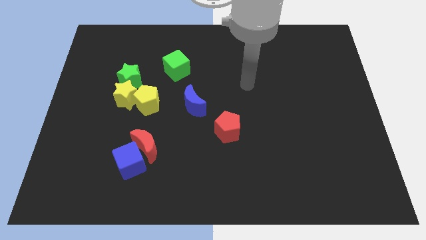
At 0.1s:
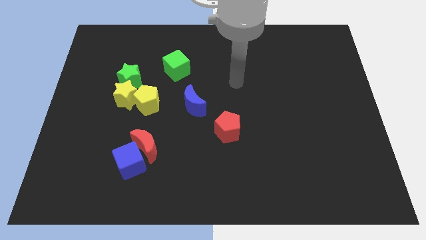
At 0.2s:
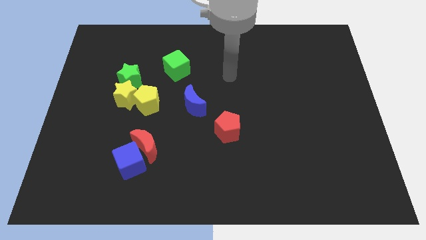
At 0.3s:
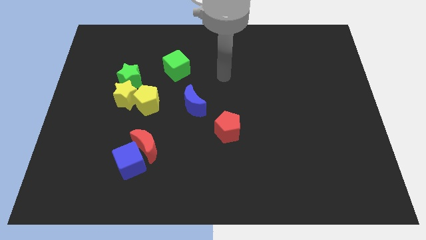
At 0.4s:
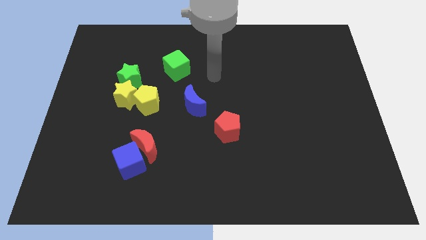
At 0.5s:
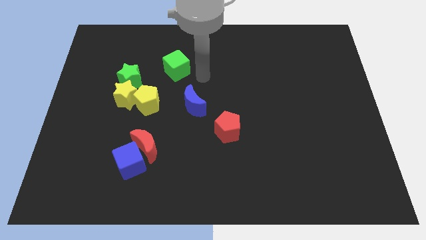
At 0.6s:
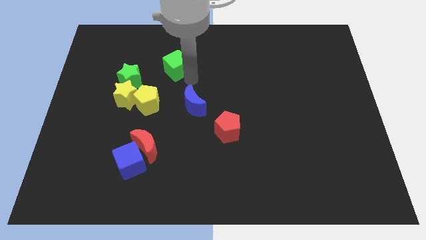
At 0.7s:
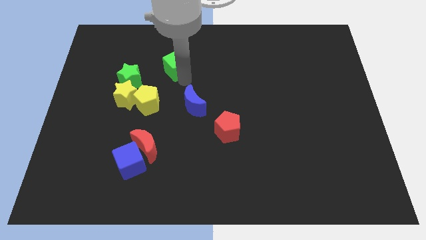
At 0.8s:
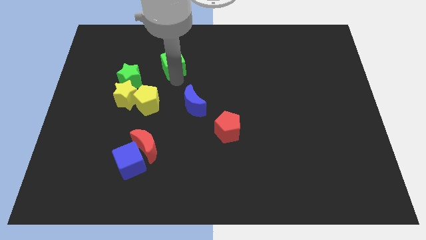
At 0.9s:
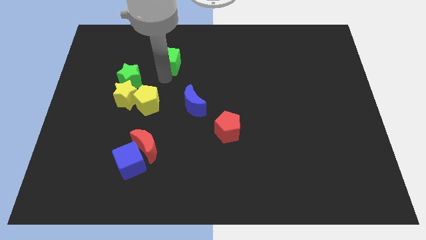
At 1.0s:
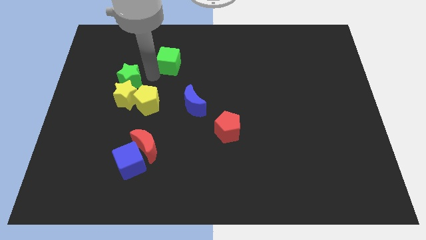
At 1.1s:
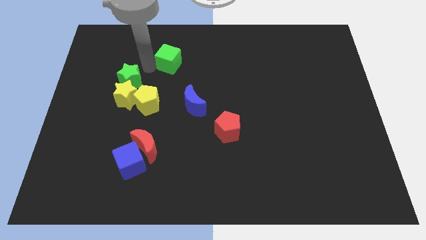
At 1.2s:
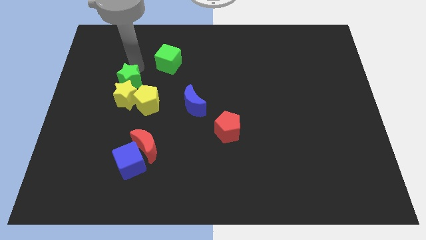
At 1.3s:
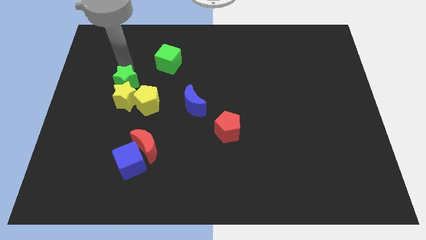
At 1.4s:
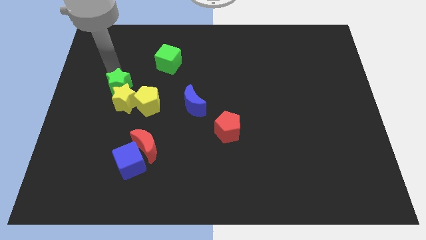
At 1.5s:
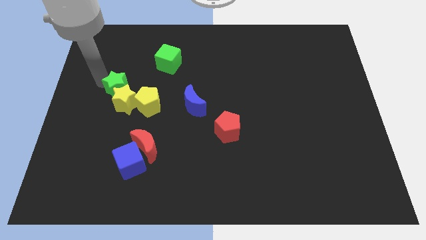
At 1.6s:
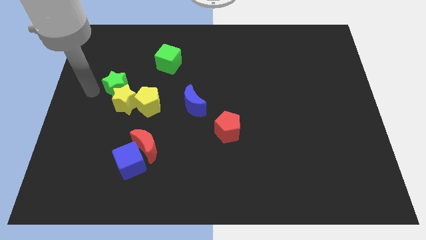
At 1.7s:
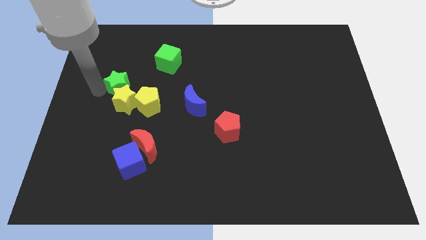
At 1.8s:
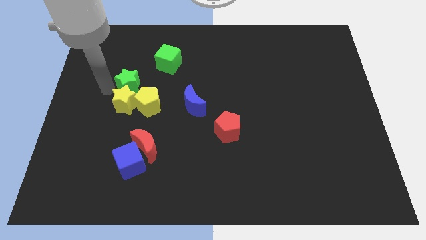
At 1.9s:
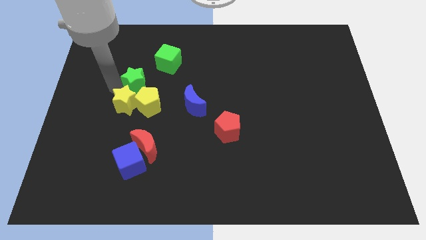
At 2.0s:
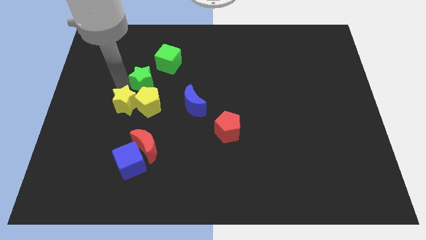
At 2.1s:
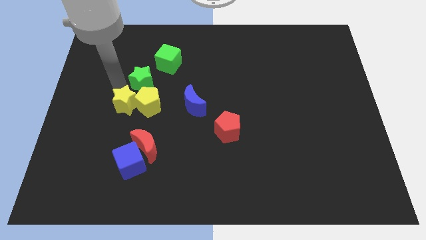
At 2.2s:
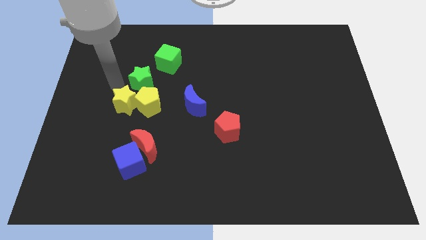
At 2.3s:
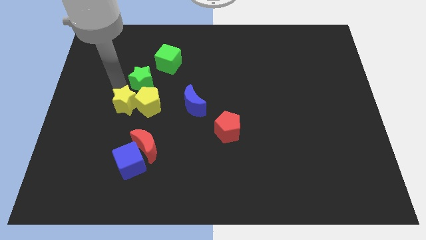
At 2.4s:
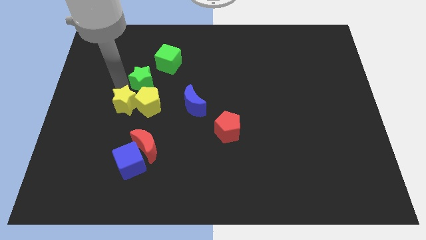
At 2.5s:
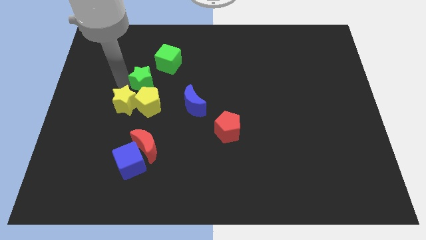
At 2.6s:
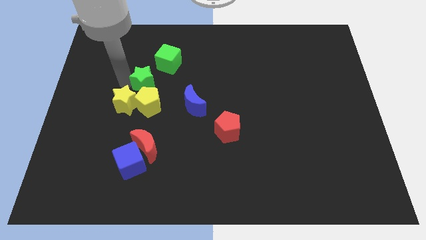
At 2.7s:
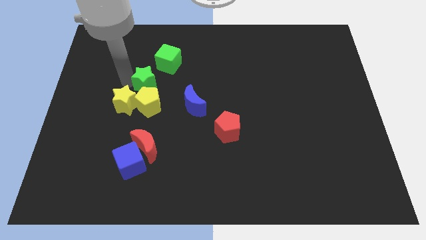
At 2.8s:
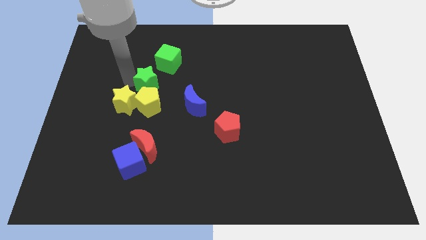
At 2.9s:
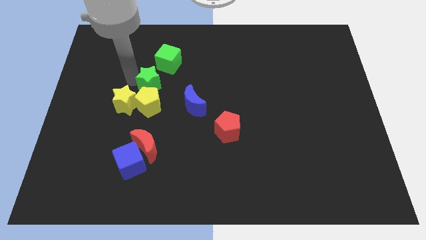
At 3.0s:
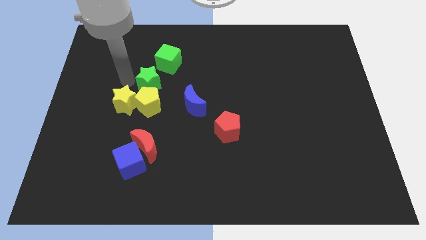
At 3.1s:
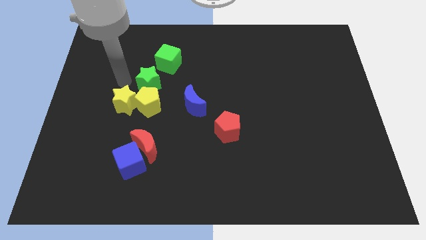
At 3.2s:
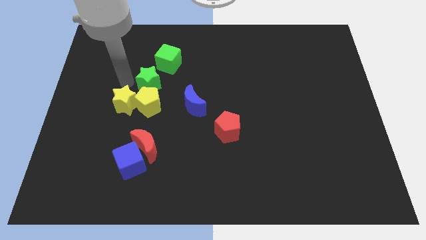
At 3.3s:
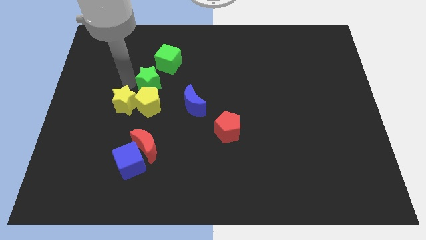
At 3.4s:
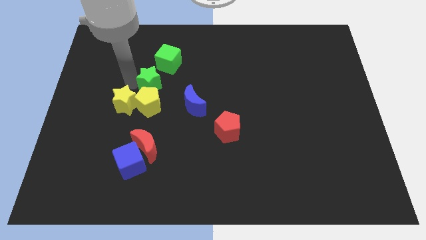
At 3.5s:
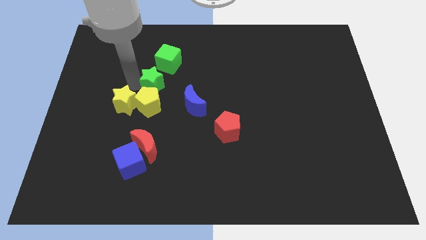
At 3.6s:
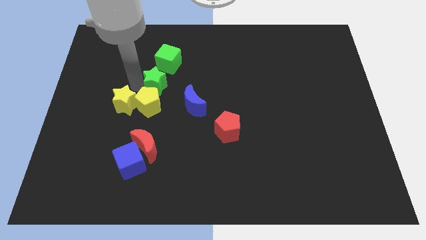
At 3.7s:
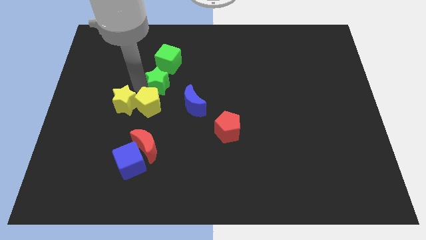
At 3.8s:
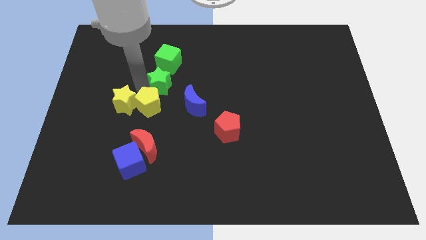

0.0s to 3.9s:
move the green star right a bit

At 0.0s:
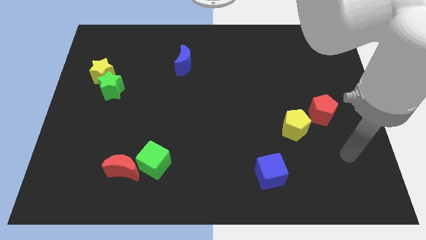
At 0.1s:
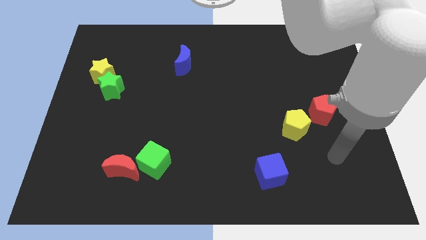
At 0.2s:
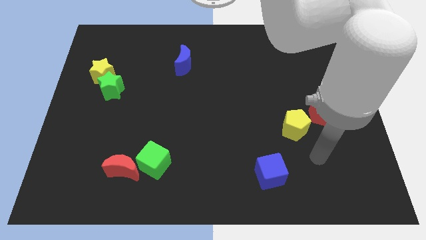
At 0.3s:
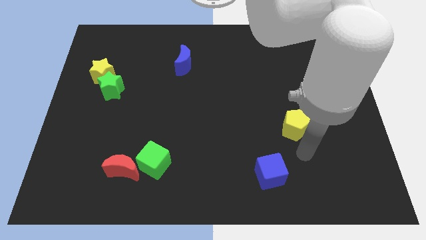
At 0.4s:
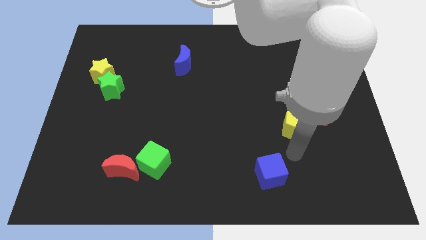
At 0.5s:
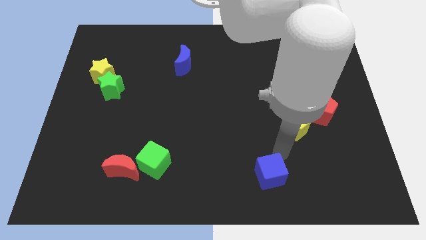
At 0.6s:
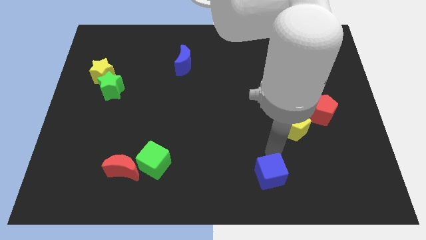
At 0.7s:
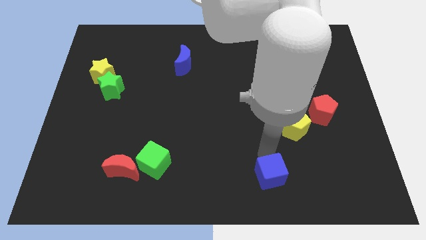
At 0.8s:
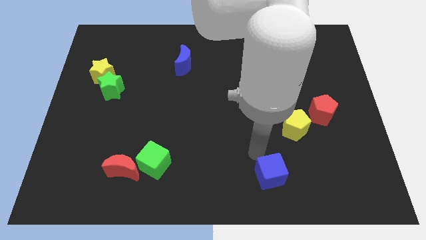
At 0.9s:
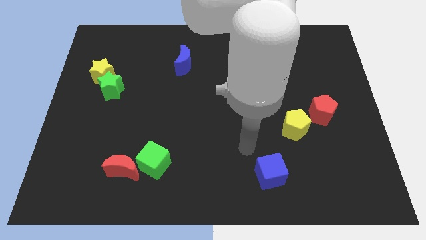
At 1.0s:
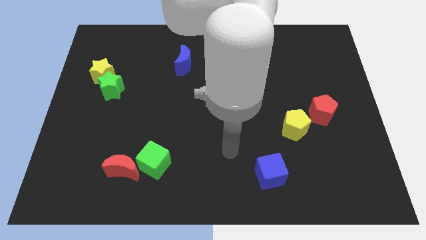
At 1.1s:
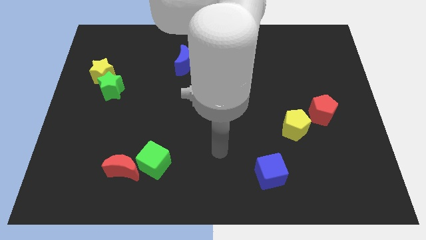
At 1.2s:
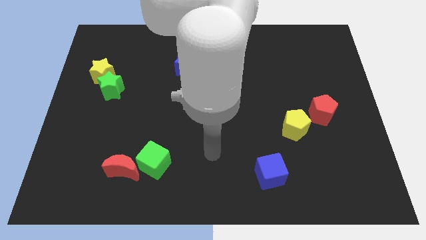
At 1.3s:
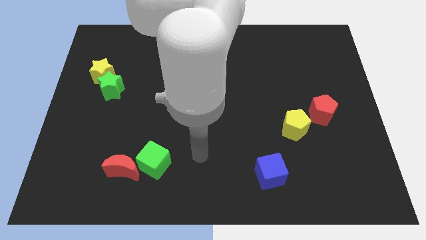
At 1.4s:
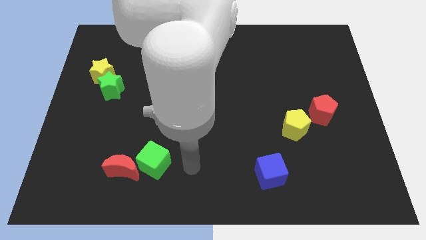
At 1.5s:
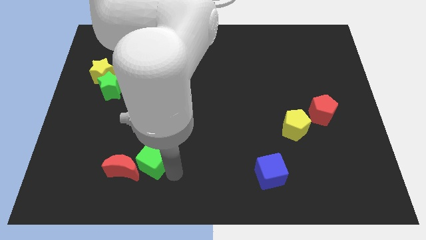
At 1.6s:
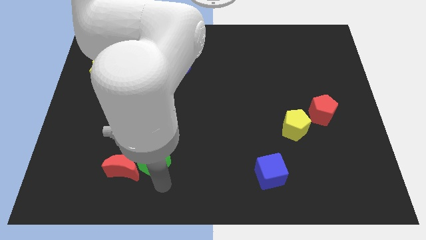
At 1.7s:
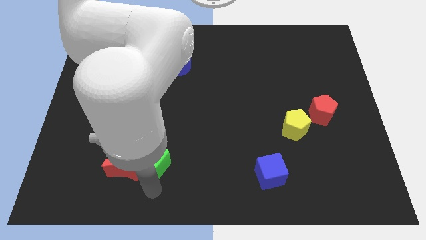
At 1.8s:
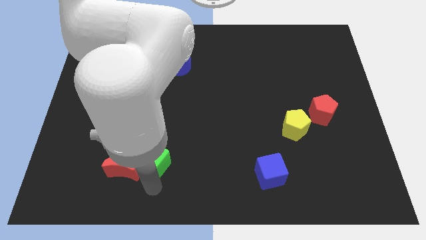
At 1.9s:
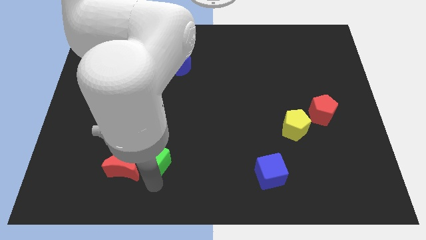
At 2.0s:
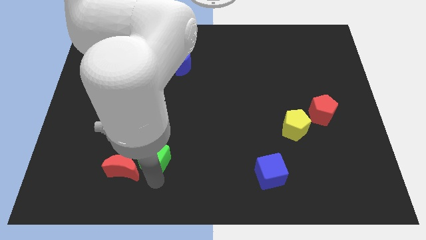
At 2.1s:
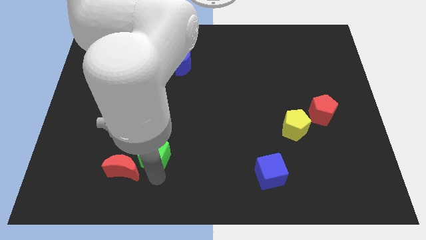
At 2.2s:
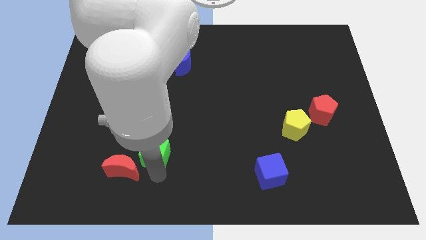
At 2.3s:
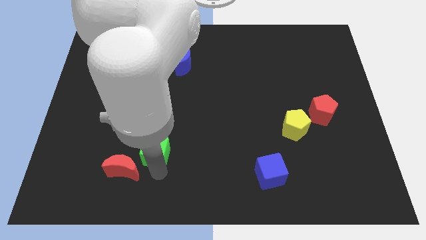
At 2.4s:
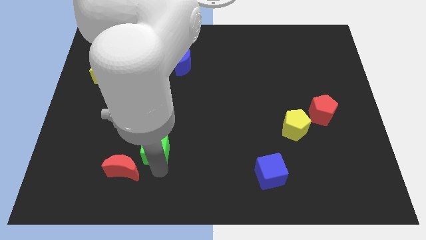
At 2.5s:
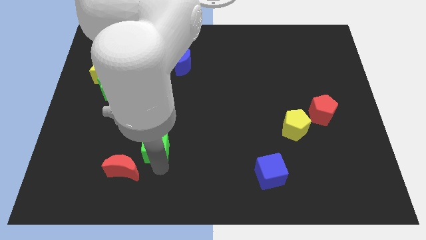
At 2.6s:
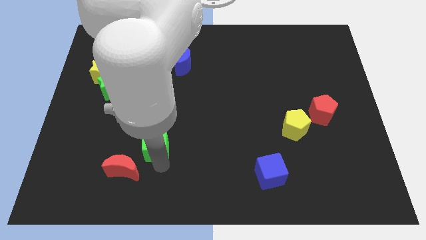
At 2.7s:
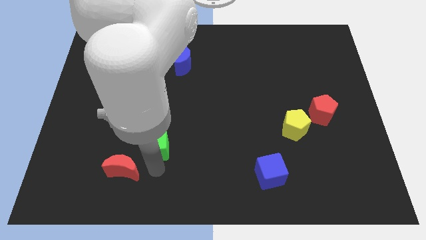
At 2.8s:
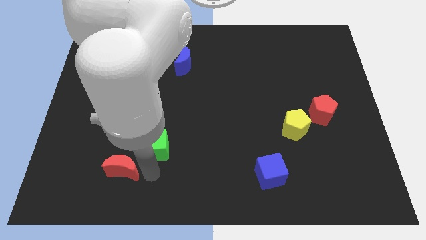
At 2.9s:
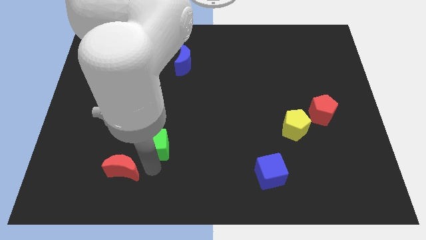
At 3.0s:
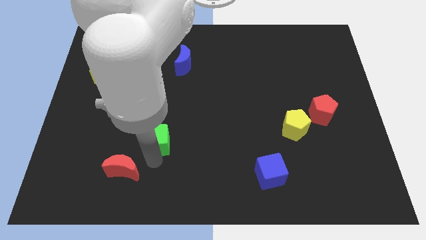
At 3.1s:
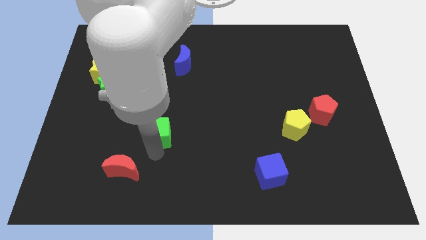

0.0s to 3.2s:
move the green cube a bit upwards

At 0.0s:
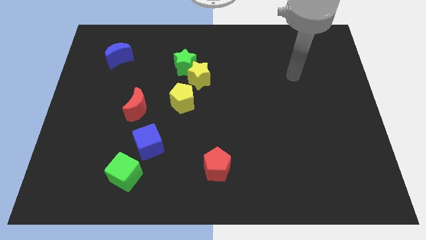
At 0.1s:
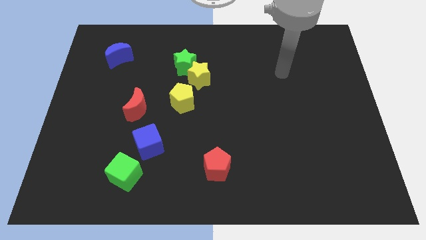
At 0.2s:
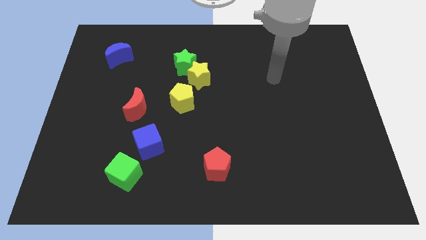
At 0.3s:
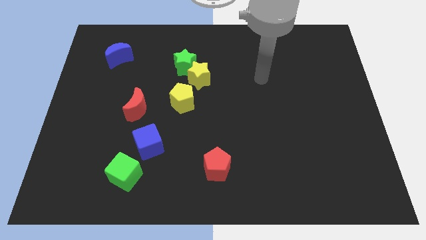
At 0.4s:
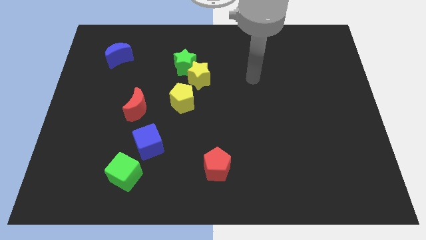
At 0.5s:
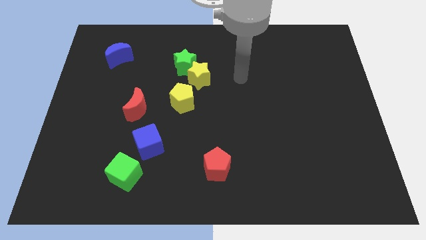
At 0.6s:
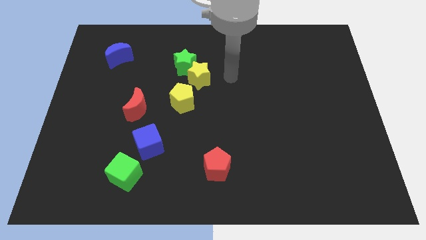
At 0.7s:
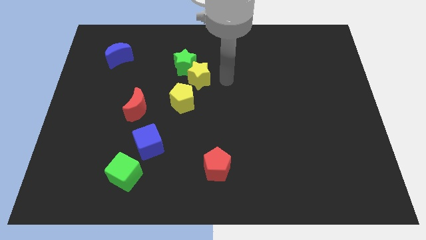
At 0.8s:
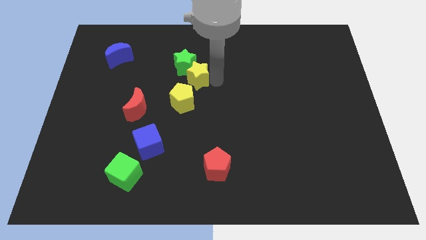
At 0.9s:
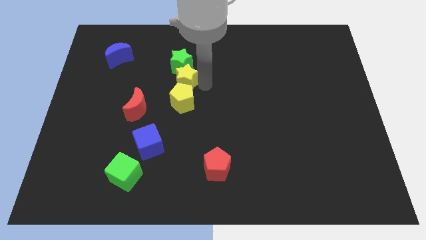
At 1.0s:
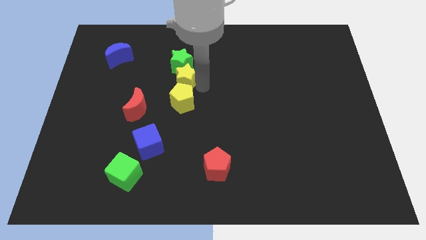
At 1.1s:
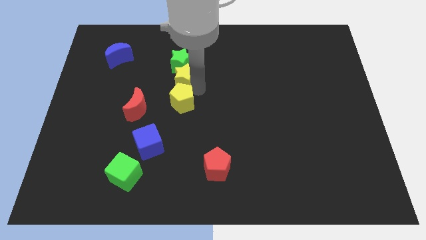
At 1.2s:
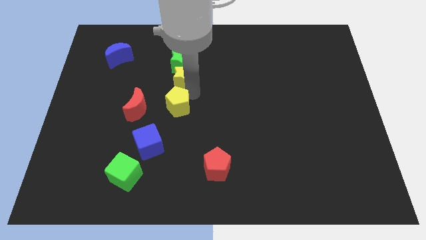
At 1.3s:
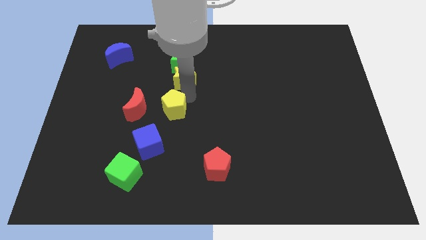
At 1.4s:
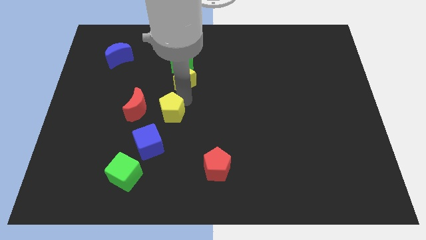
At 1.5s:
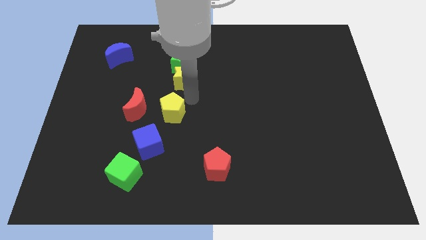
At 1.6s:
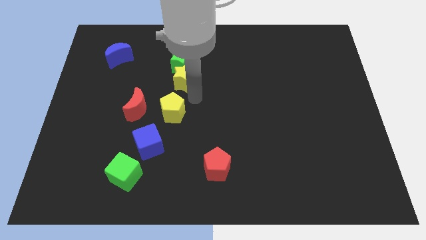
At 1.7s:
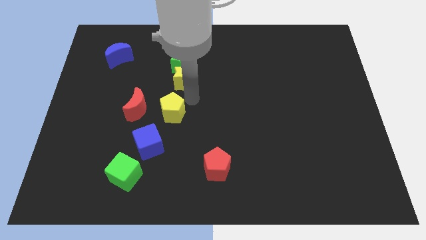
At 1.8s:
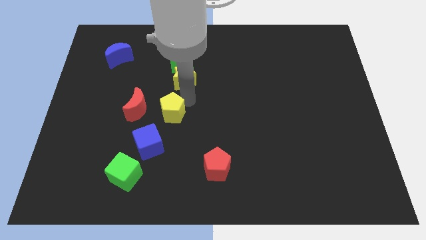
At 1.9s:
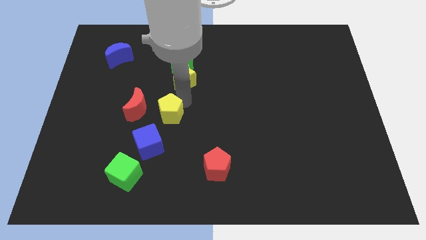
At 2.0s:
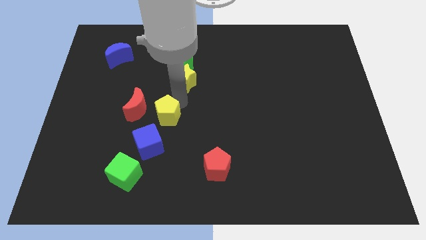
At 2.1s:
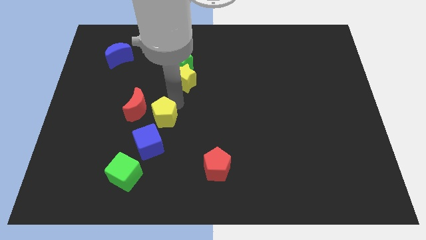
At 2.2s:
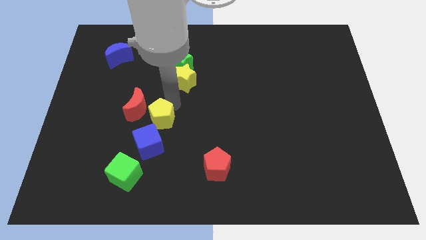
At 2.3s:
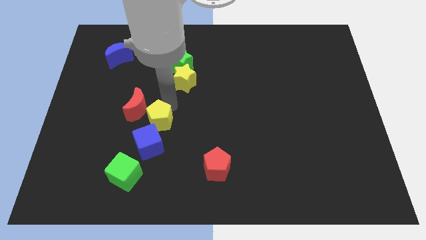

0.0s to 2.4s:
slightly move the yellow pentagon diagonally down and to the left
